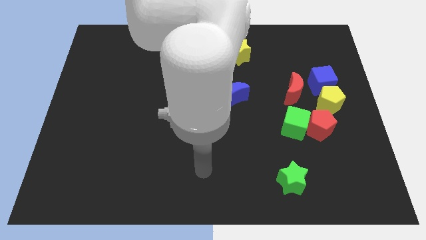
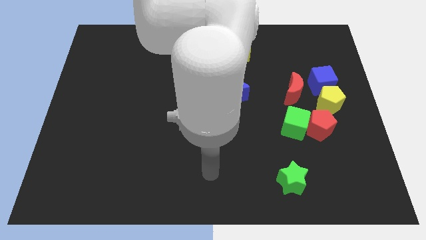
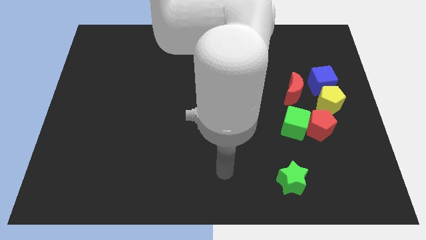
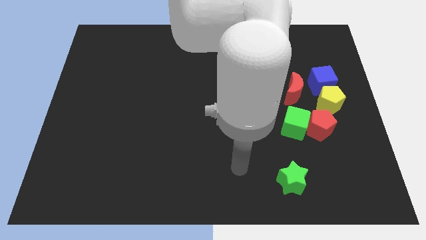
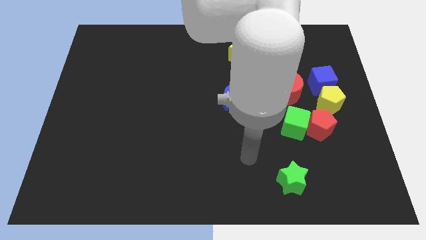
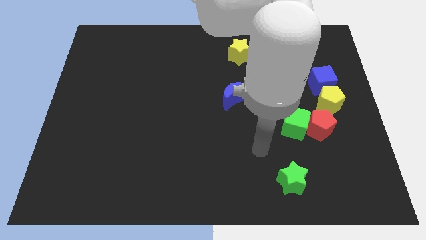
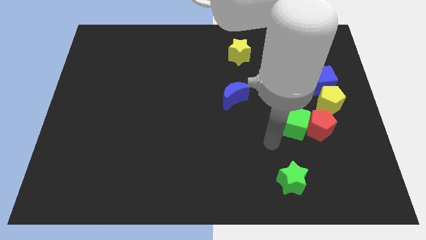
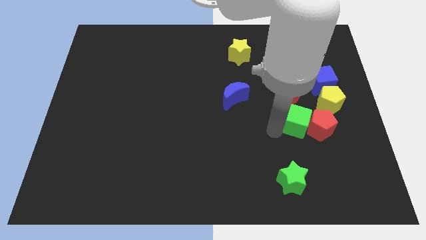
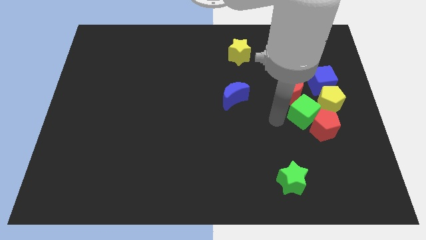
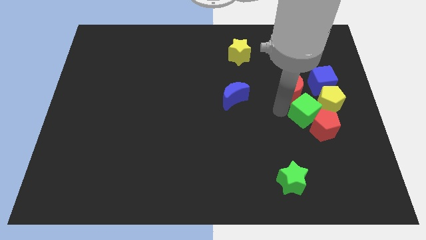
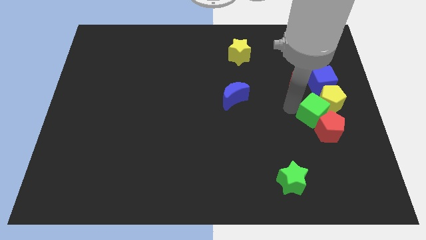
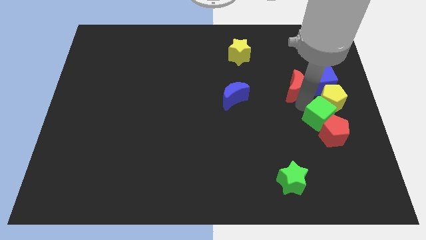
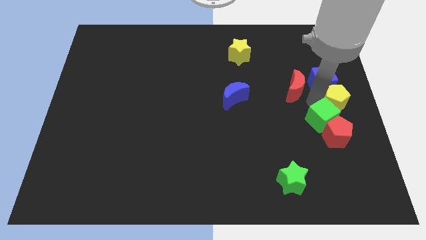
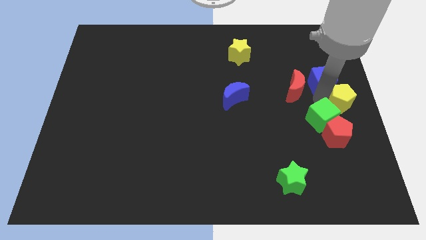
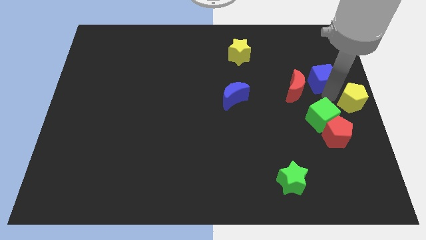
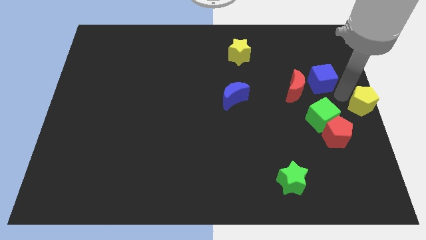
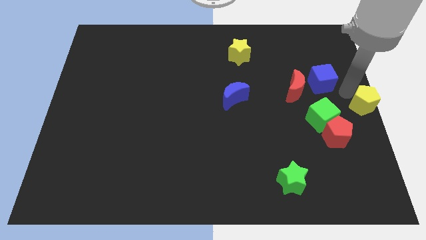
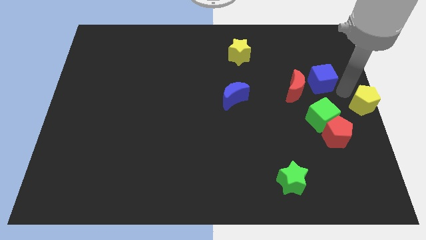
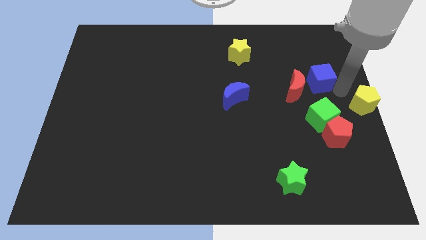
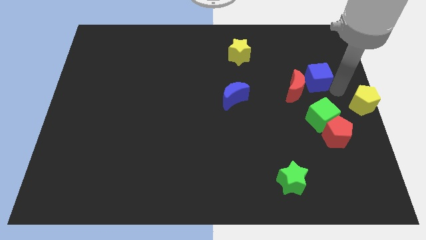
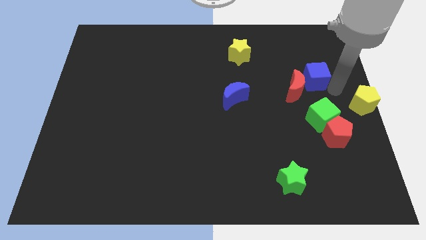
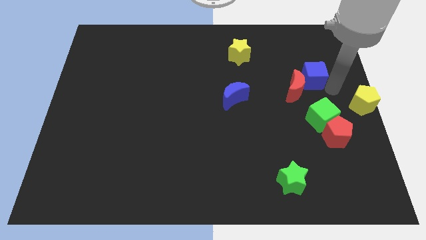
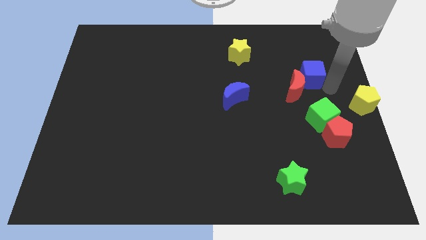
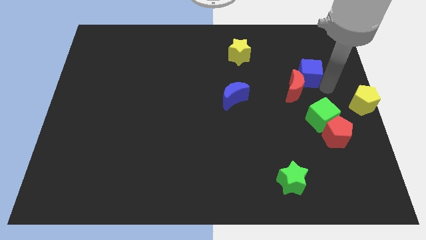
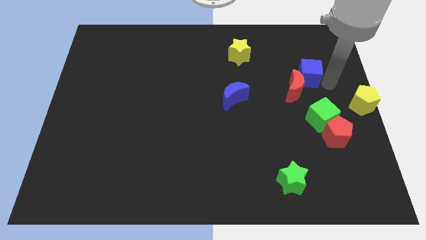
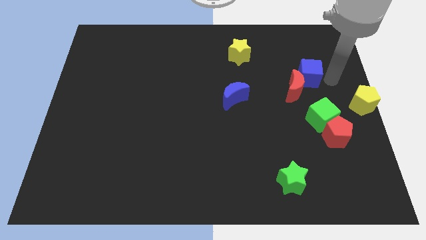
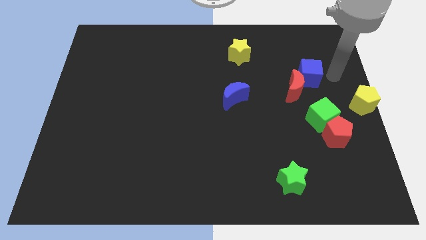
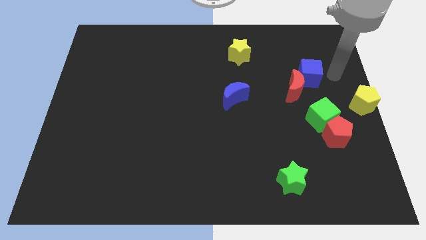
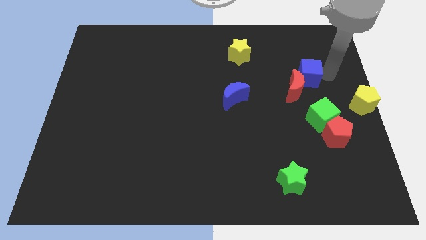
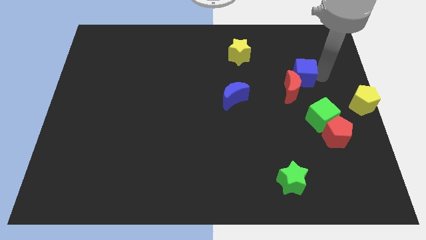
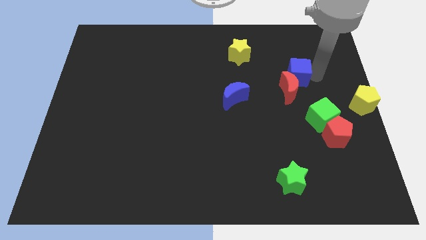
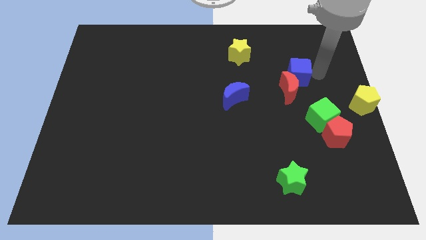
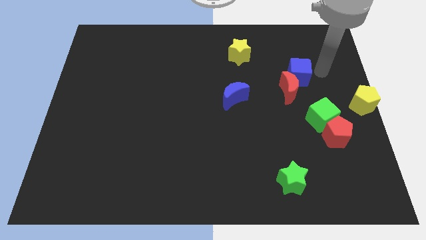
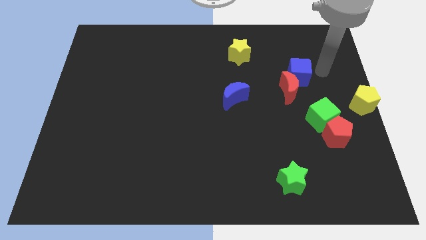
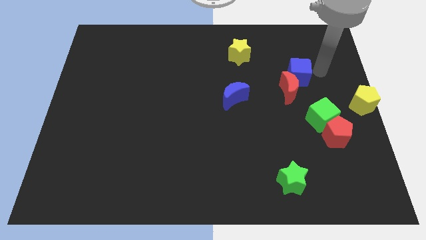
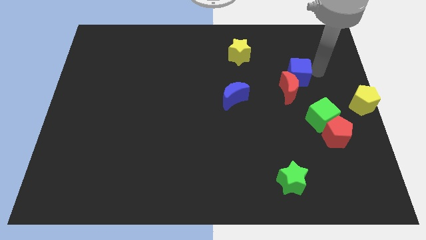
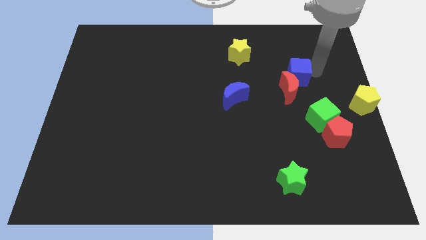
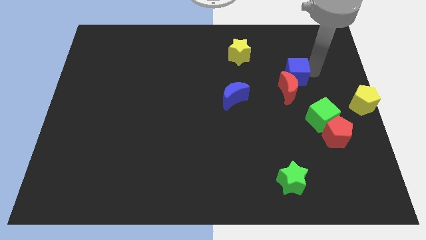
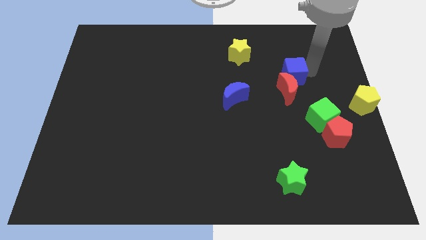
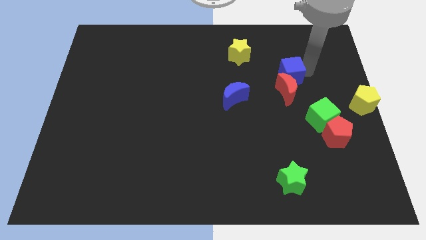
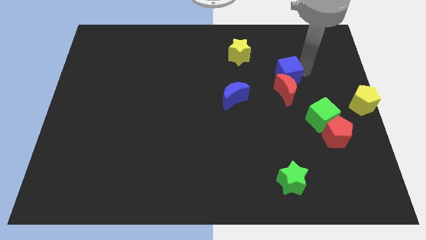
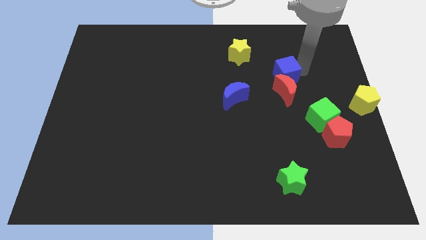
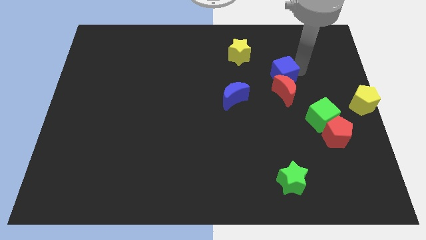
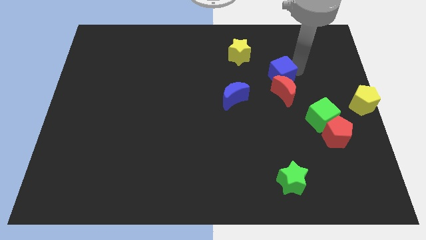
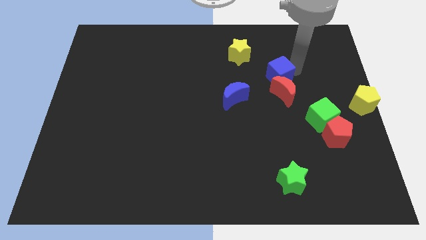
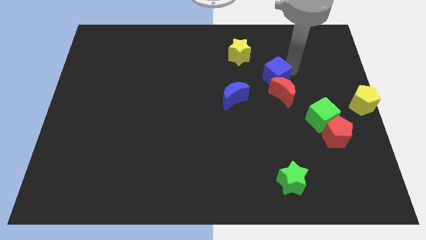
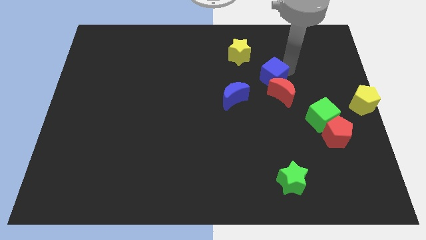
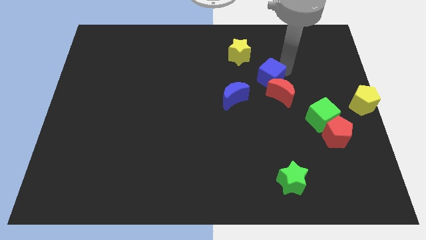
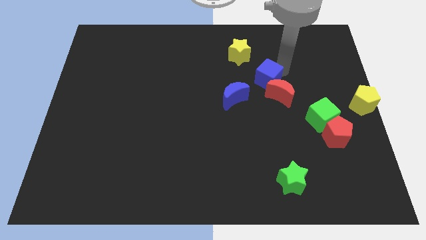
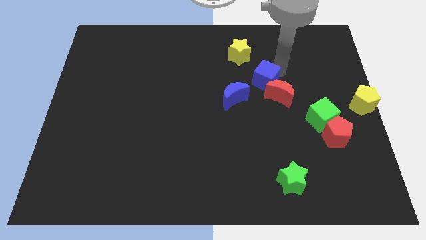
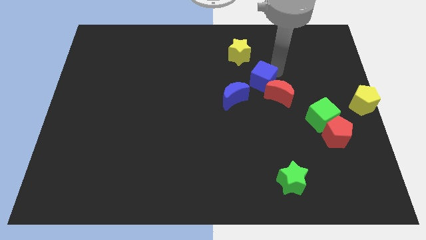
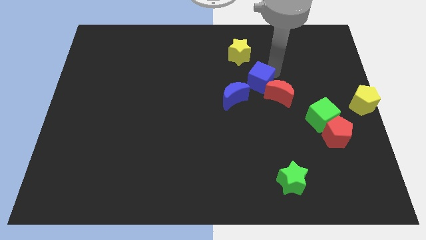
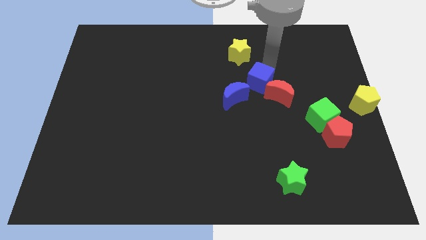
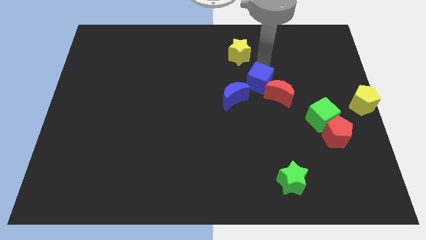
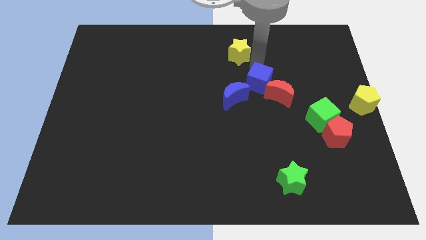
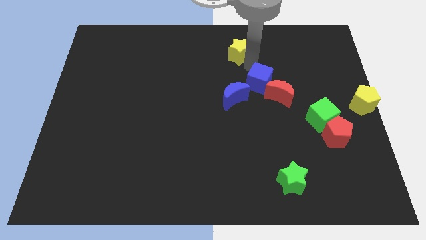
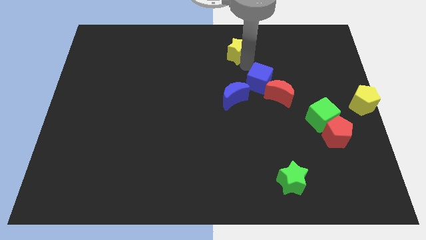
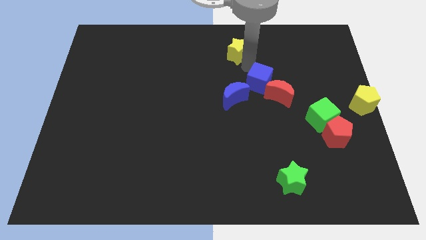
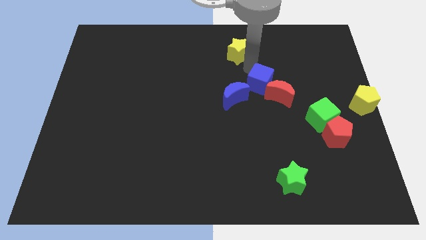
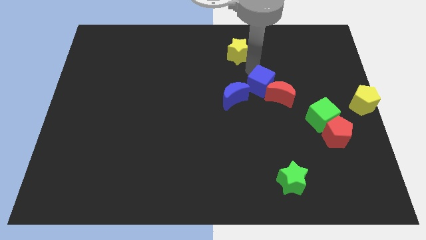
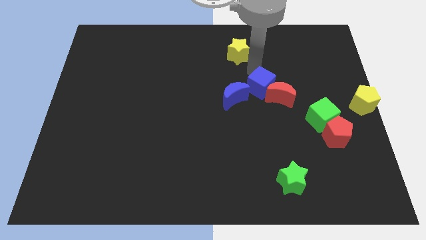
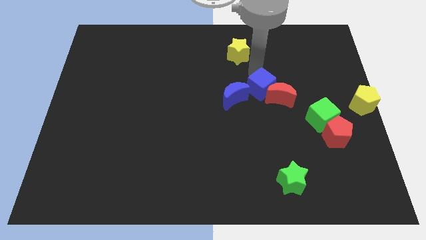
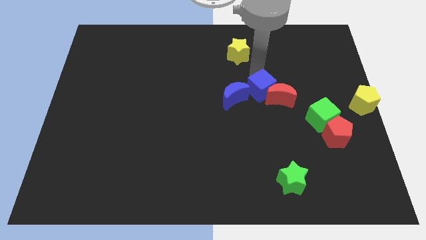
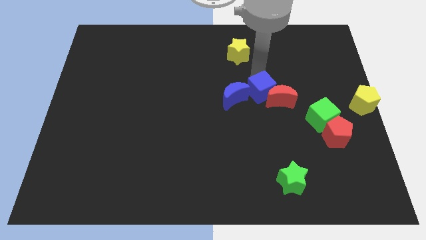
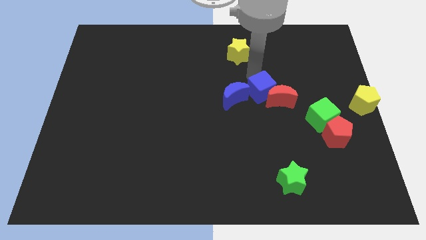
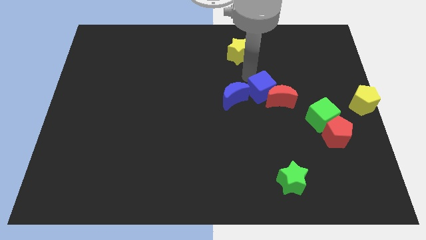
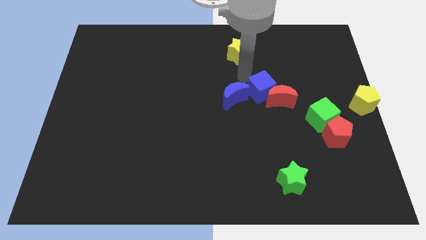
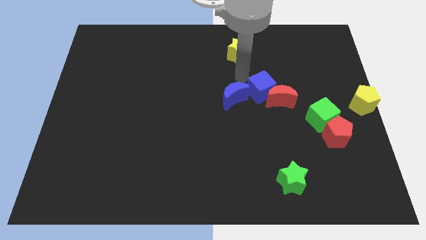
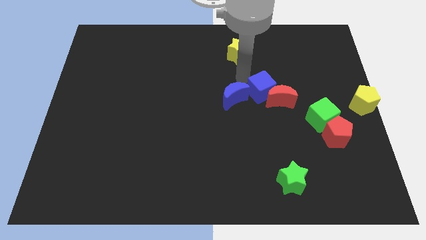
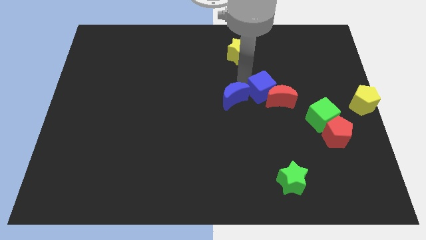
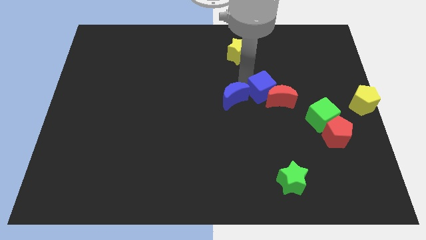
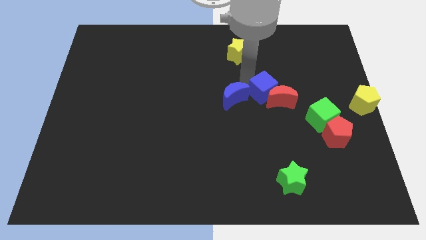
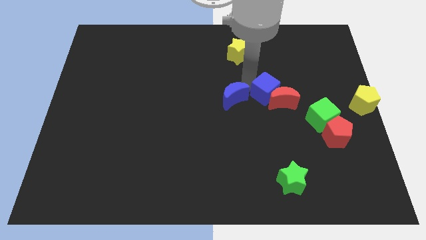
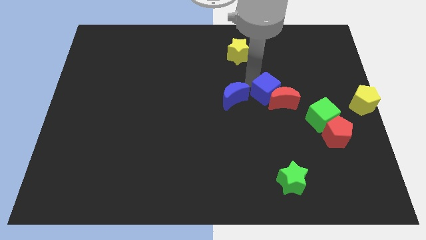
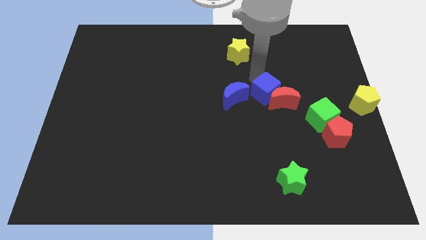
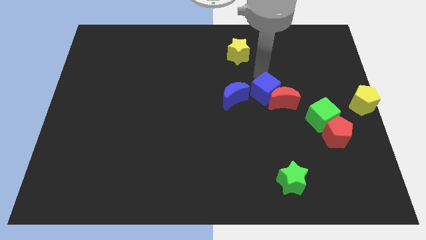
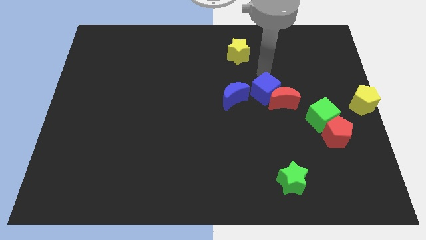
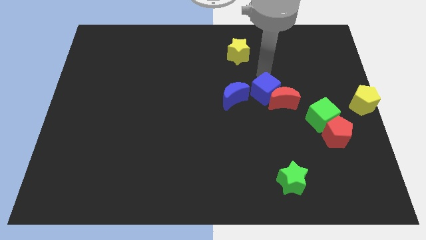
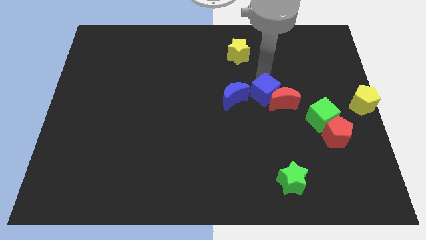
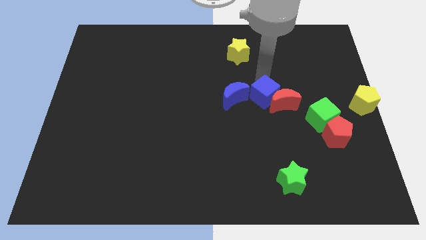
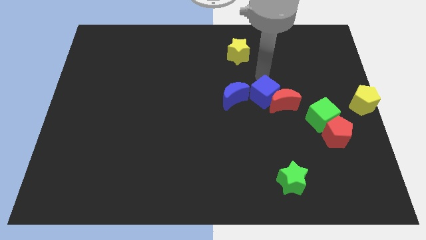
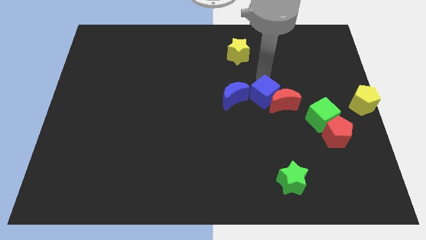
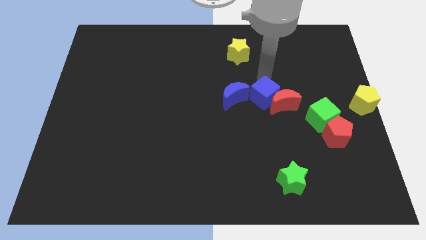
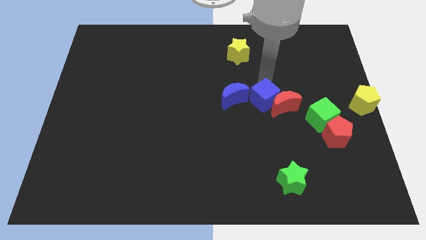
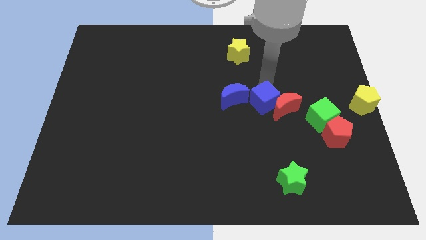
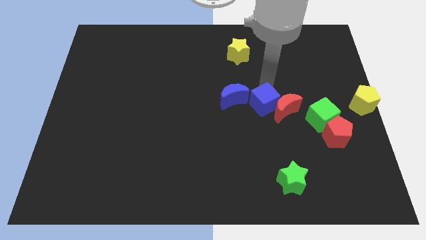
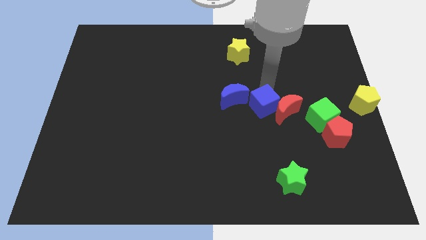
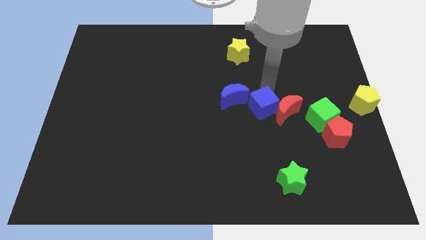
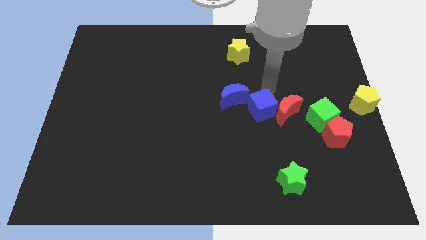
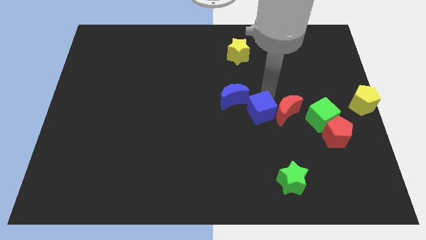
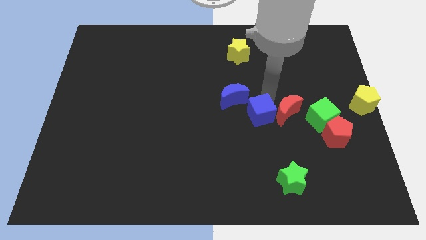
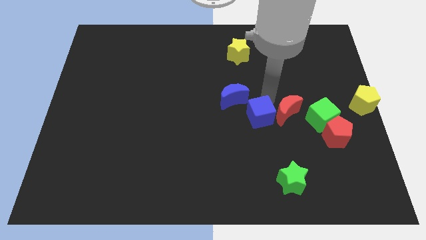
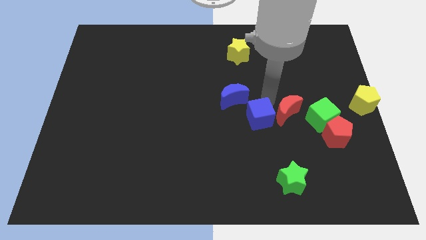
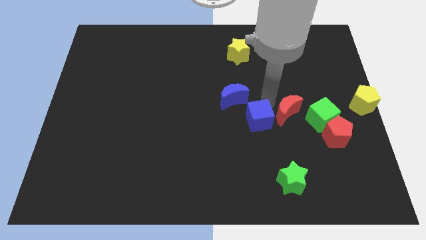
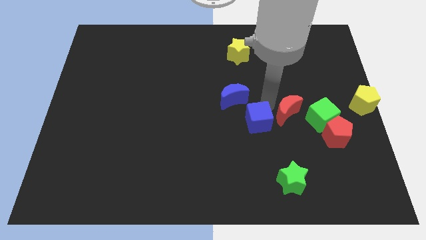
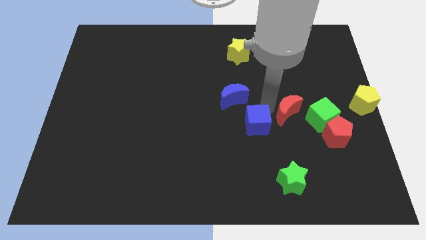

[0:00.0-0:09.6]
push the blue cube diagonally downwards and to the left
